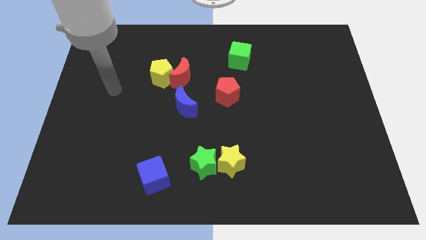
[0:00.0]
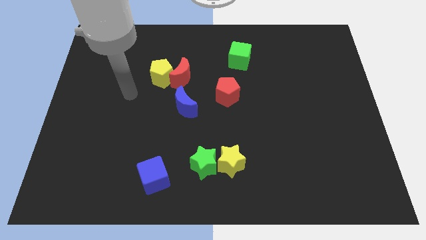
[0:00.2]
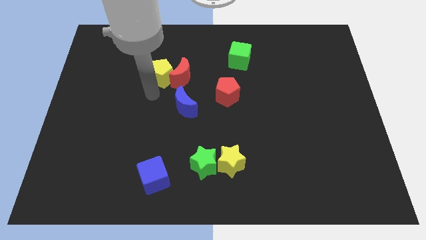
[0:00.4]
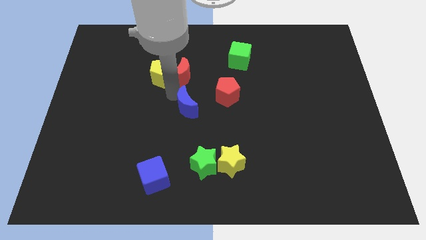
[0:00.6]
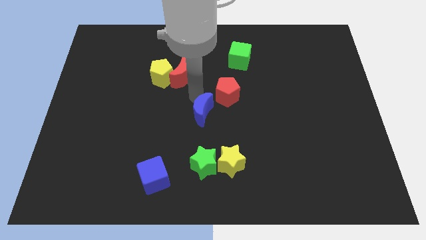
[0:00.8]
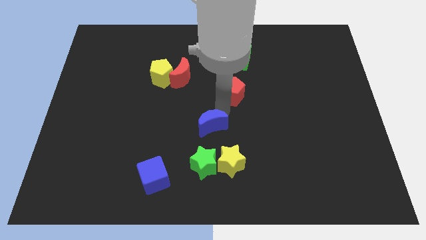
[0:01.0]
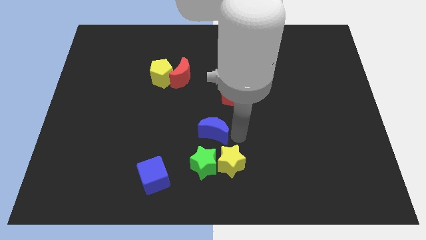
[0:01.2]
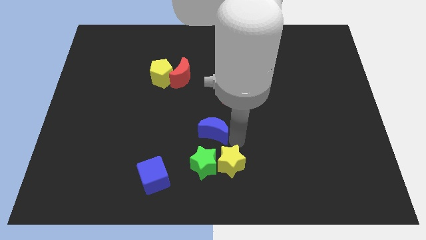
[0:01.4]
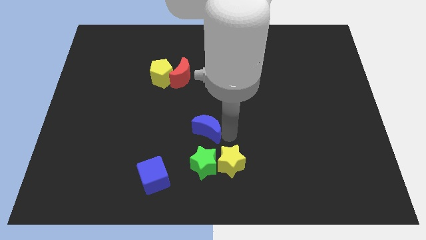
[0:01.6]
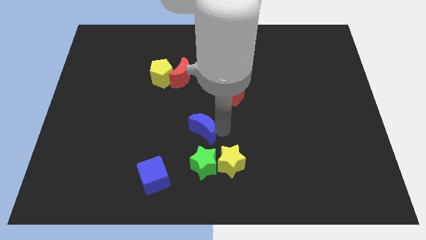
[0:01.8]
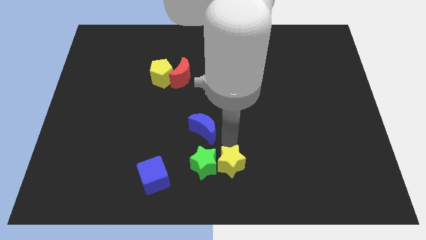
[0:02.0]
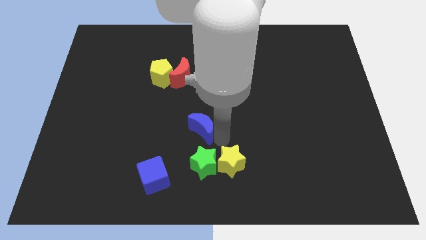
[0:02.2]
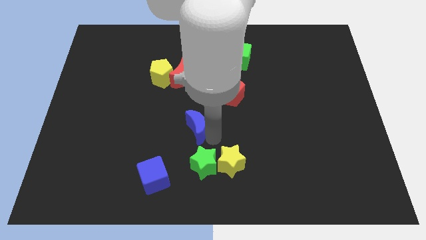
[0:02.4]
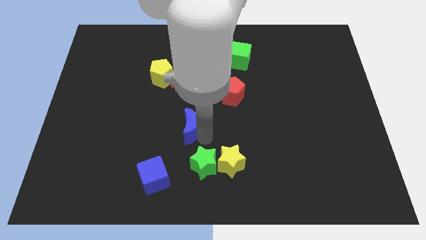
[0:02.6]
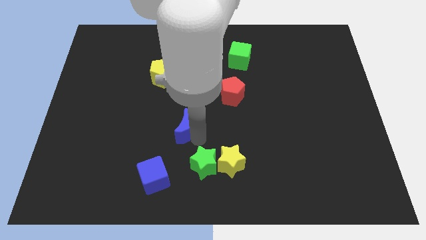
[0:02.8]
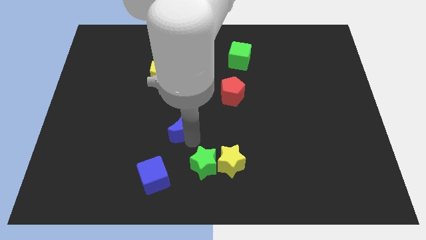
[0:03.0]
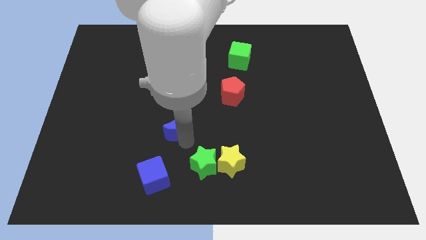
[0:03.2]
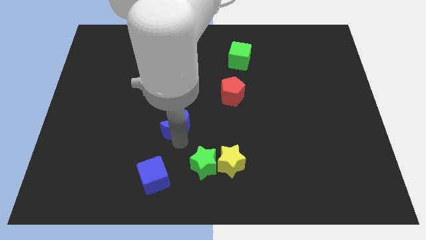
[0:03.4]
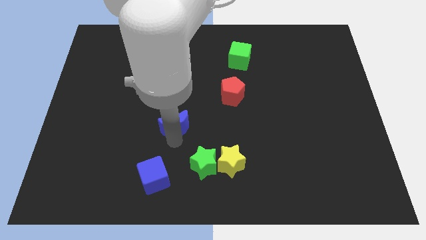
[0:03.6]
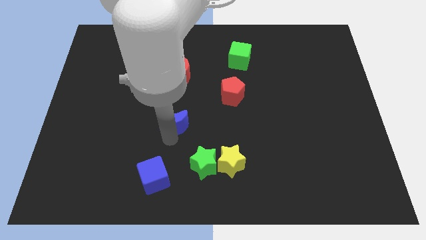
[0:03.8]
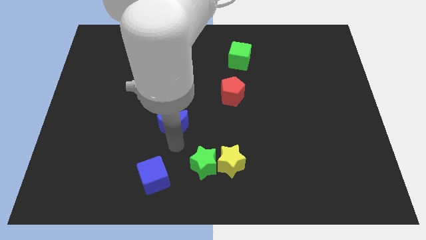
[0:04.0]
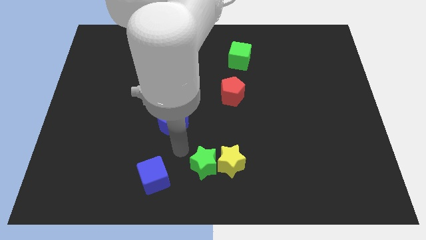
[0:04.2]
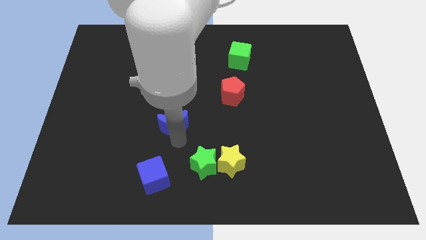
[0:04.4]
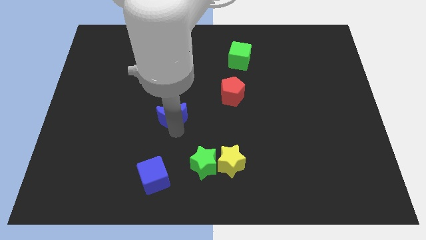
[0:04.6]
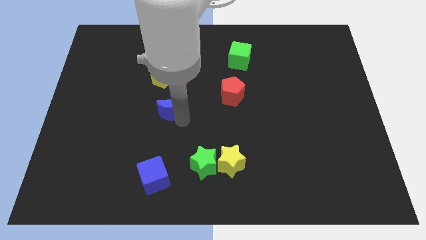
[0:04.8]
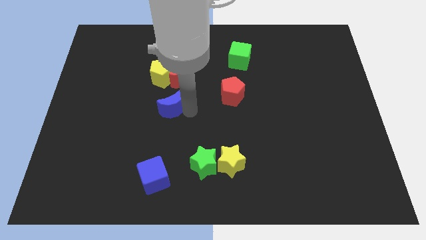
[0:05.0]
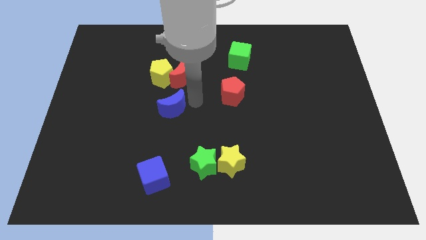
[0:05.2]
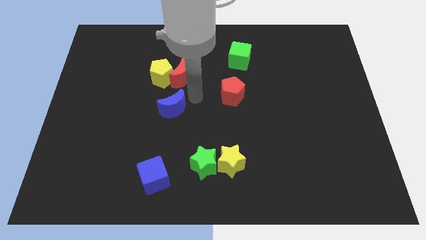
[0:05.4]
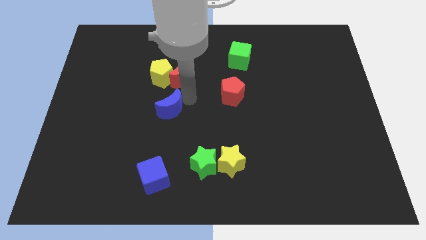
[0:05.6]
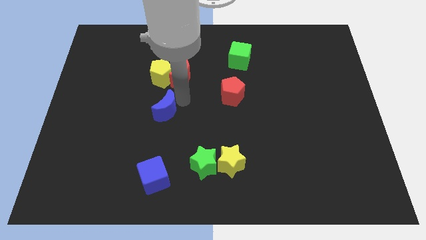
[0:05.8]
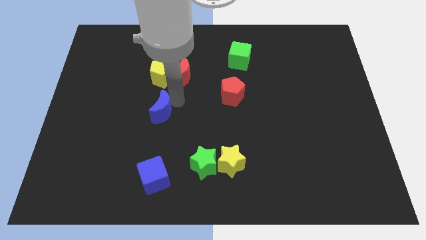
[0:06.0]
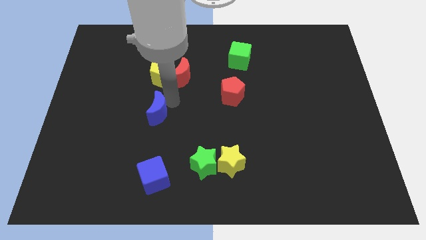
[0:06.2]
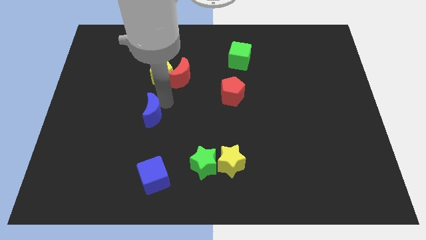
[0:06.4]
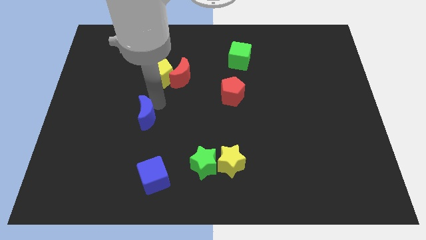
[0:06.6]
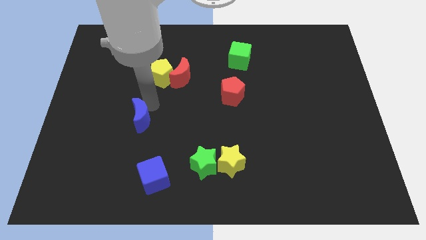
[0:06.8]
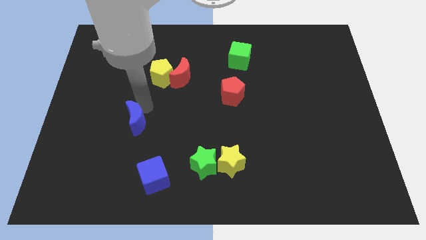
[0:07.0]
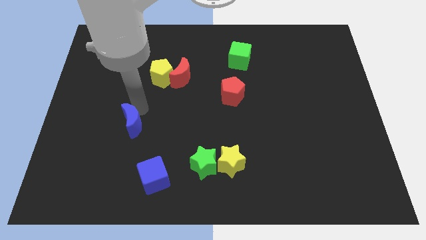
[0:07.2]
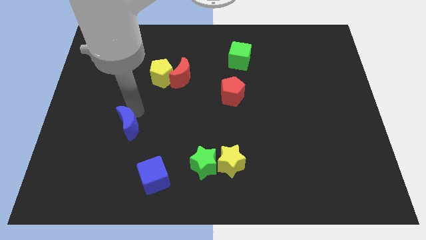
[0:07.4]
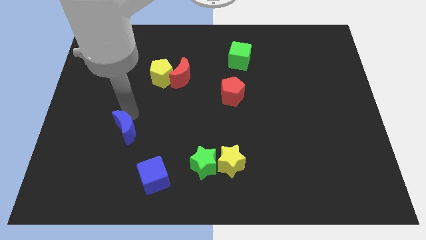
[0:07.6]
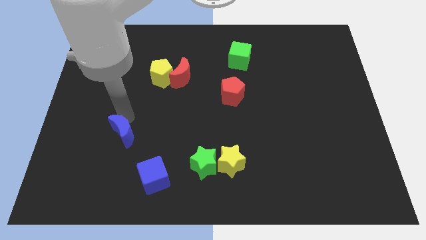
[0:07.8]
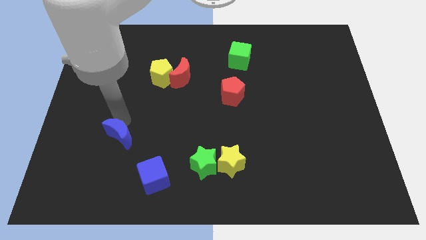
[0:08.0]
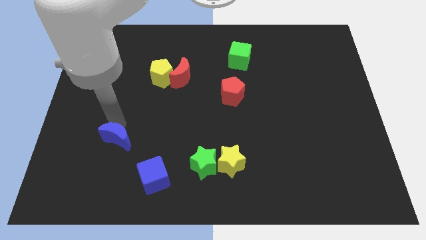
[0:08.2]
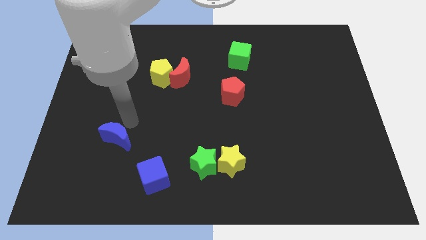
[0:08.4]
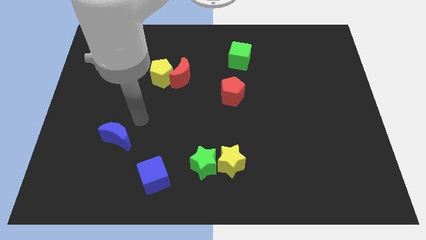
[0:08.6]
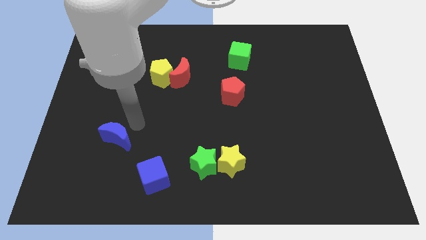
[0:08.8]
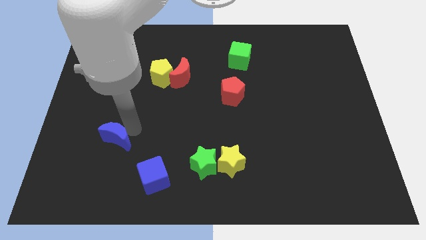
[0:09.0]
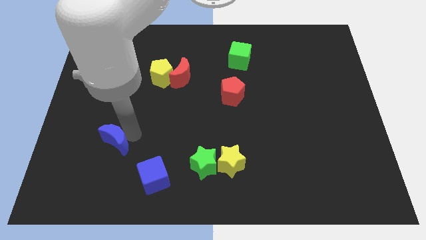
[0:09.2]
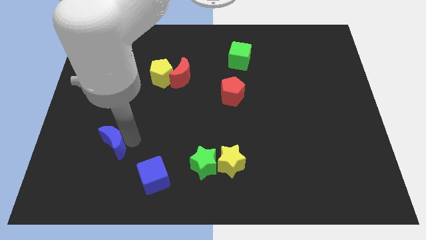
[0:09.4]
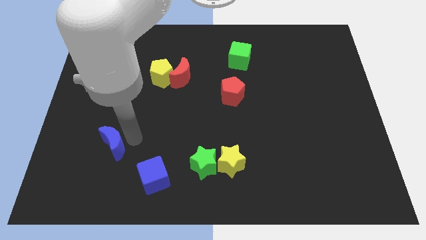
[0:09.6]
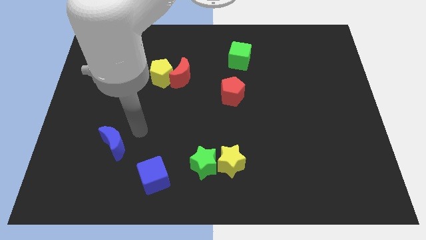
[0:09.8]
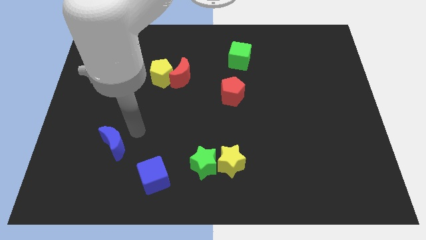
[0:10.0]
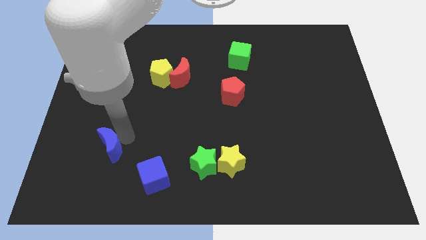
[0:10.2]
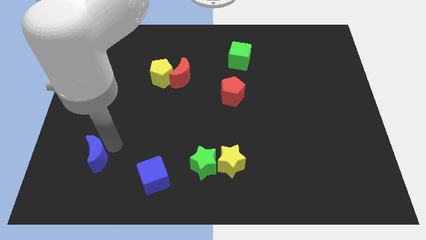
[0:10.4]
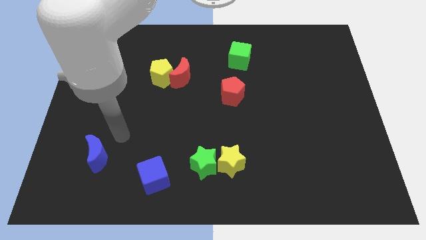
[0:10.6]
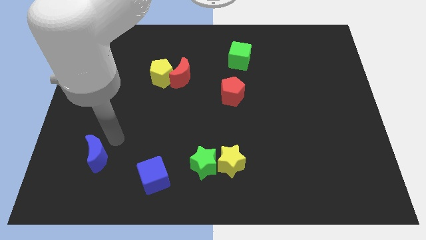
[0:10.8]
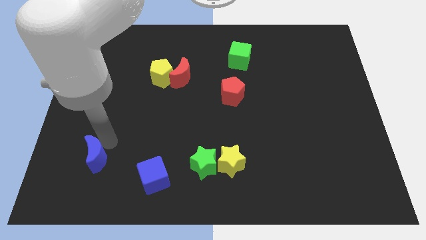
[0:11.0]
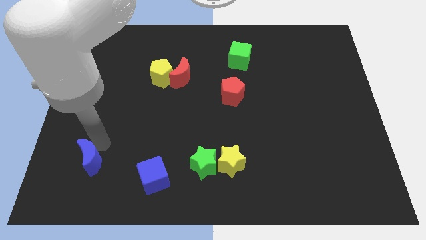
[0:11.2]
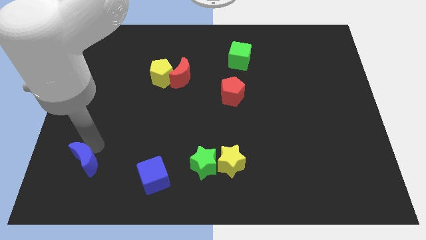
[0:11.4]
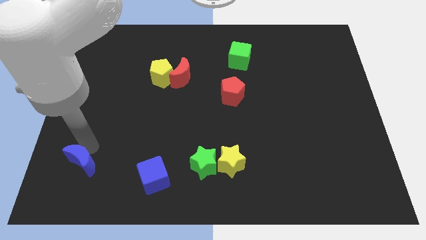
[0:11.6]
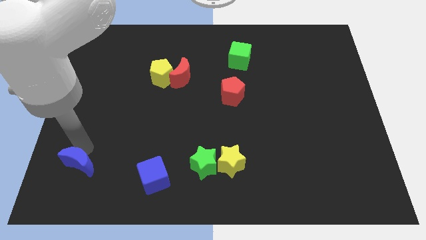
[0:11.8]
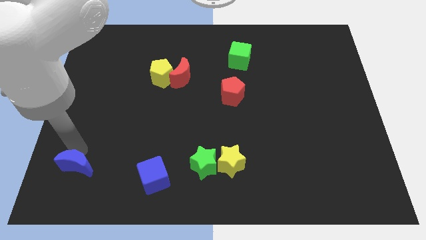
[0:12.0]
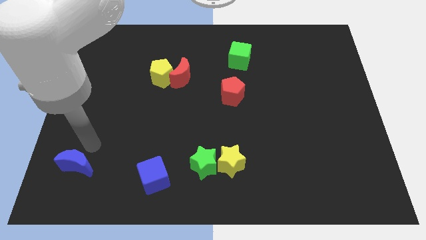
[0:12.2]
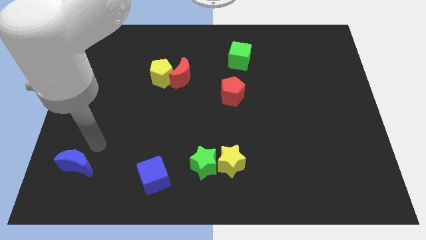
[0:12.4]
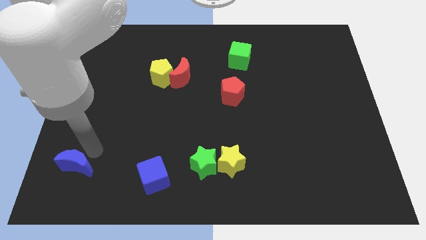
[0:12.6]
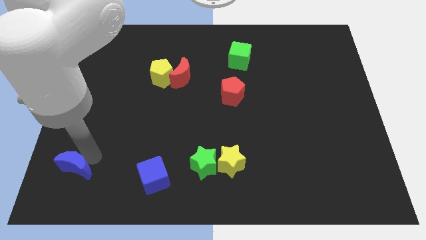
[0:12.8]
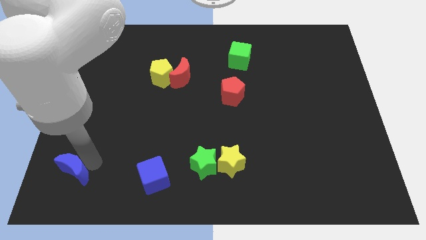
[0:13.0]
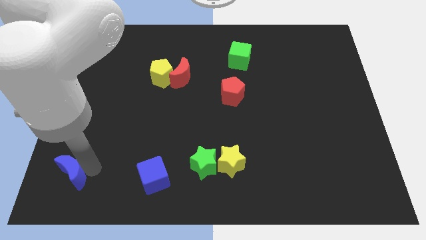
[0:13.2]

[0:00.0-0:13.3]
move the blue moon to the bottom left corner
